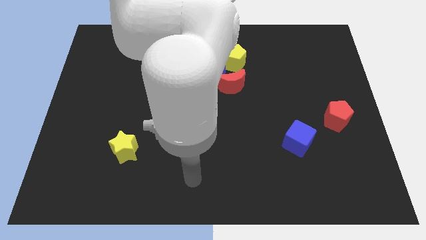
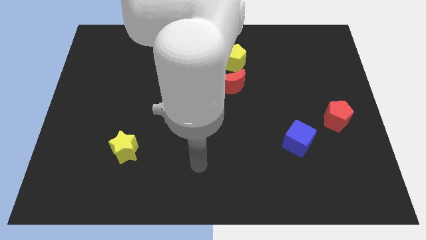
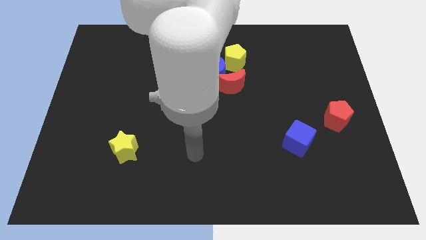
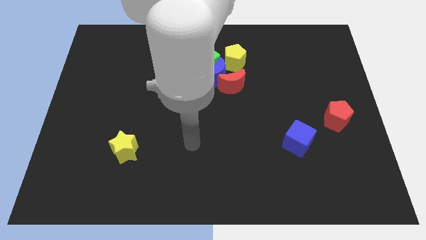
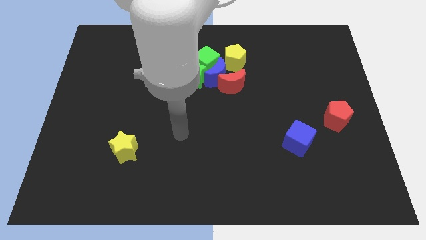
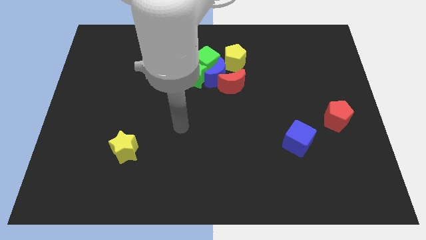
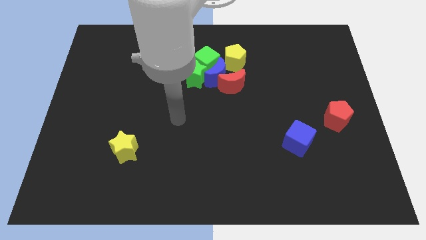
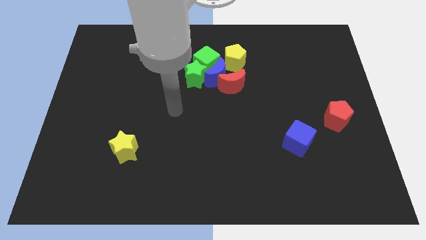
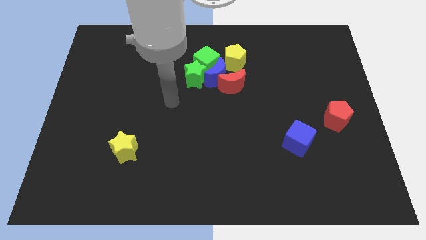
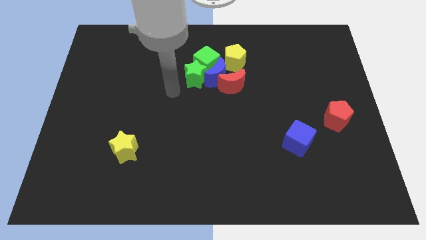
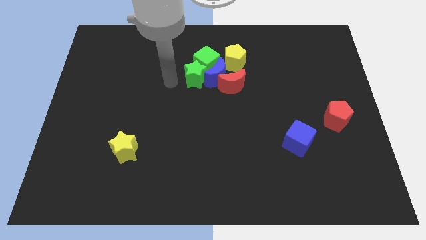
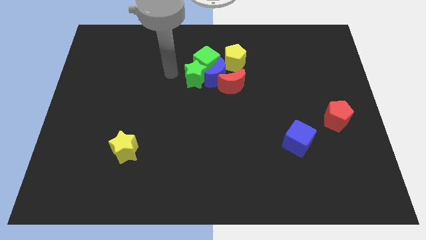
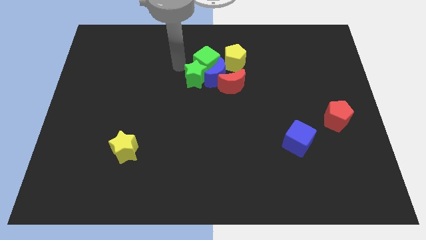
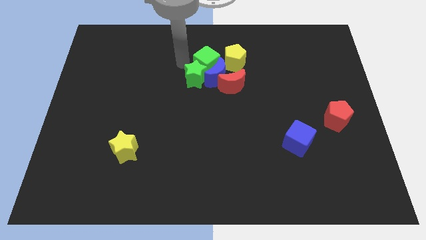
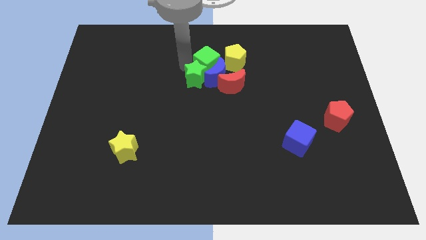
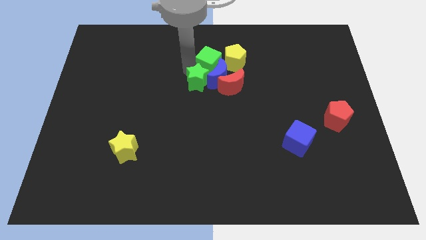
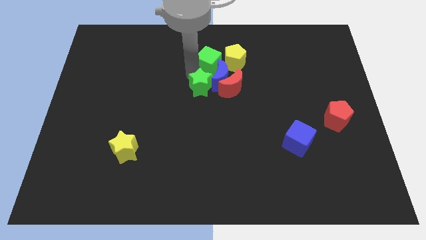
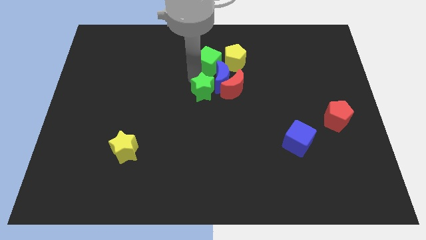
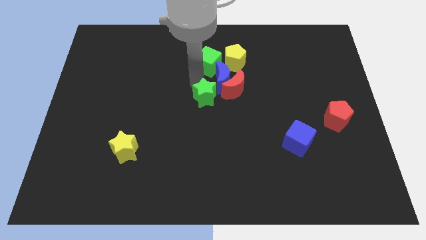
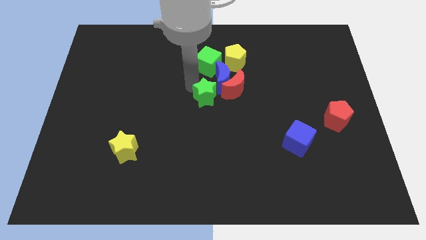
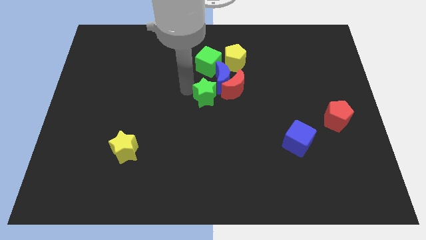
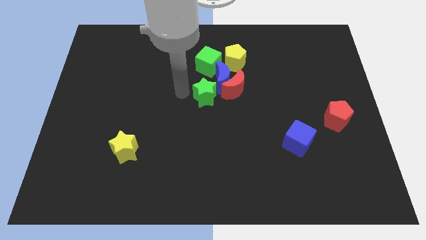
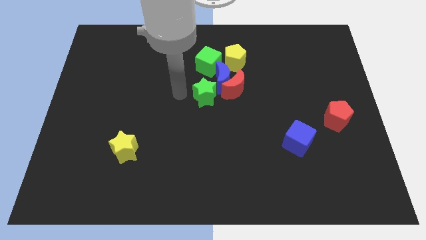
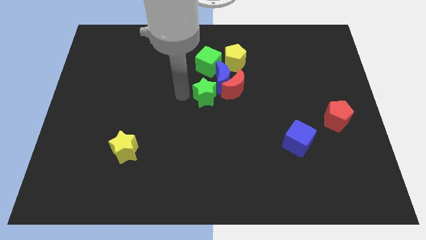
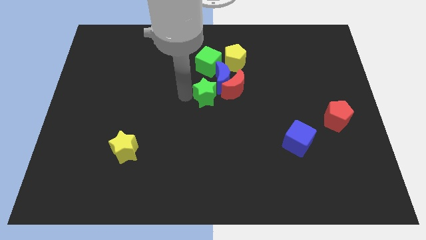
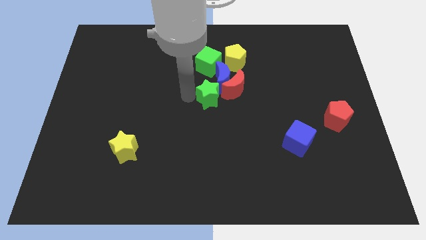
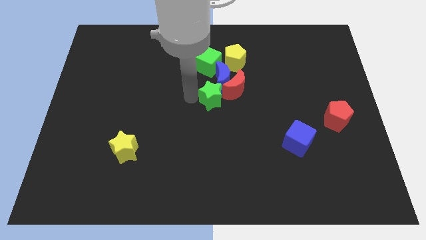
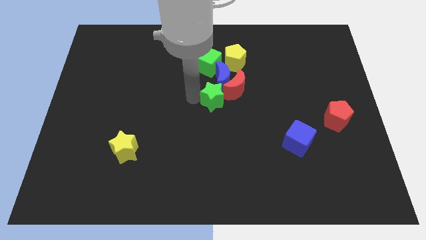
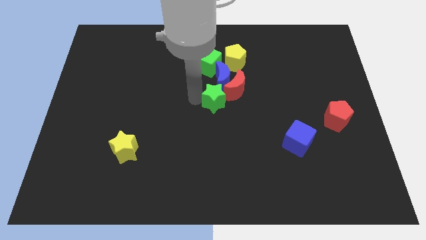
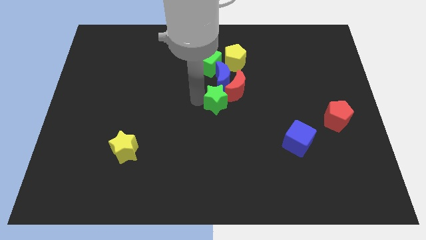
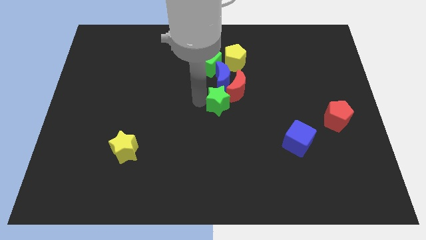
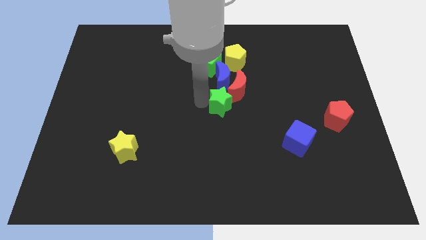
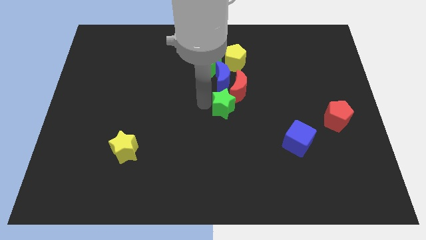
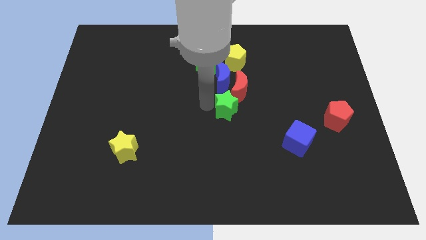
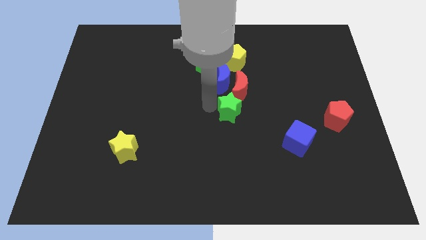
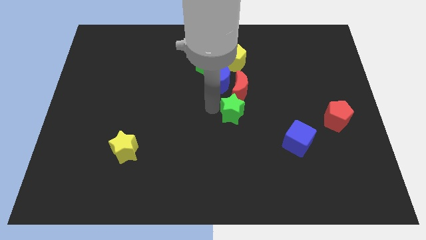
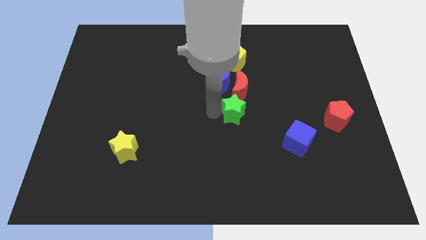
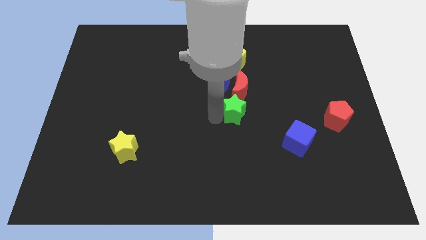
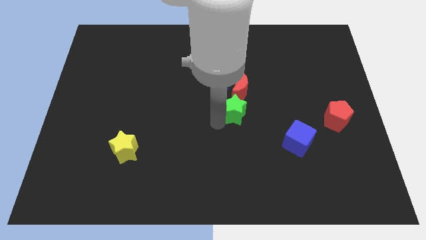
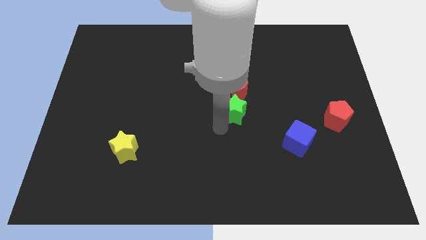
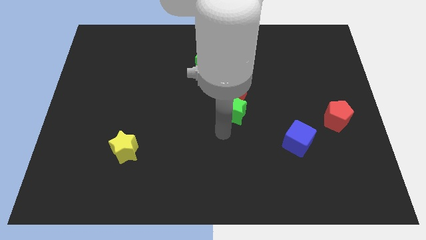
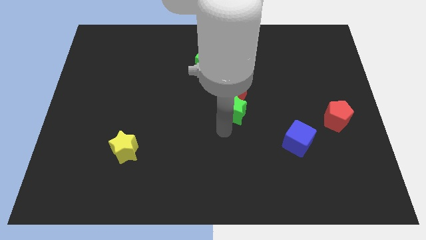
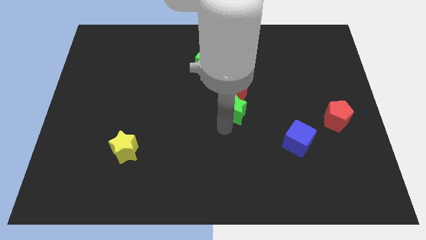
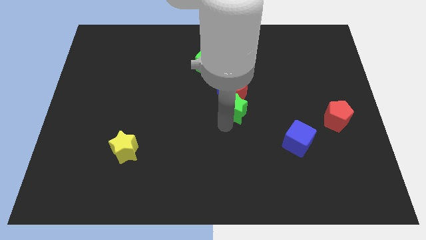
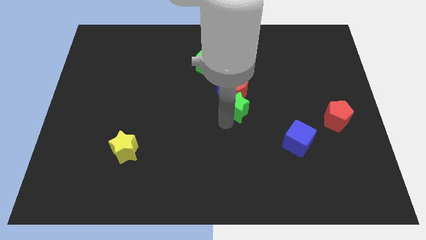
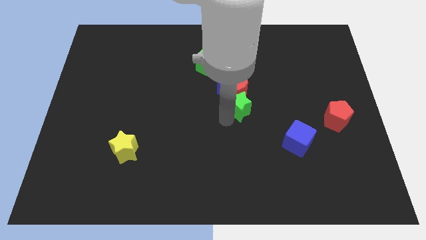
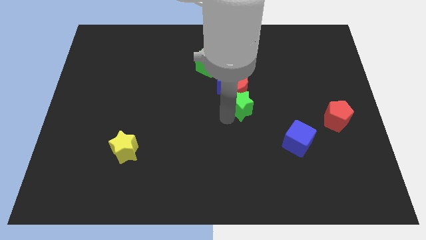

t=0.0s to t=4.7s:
push the green star right slightly

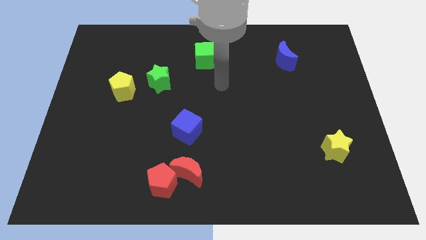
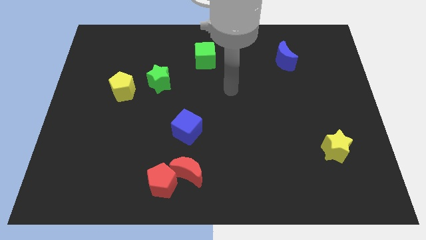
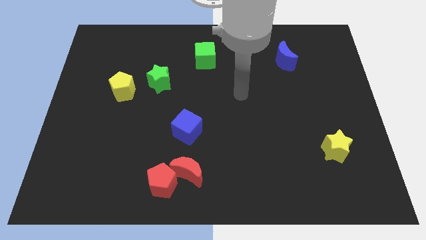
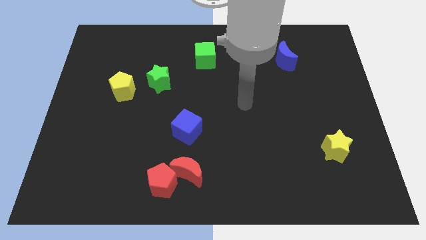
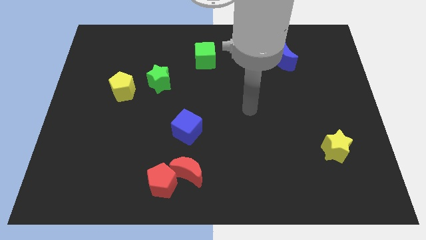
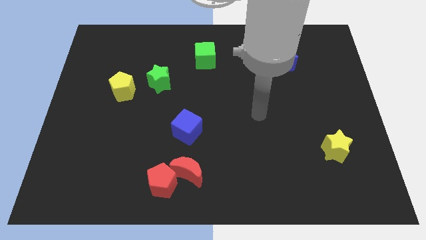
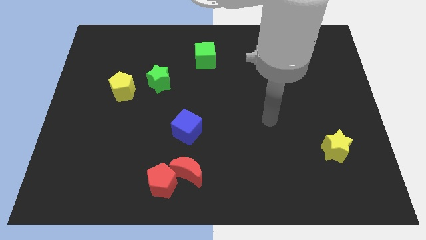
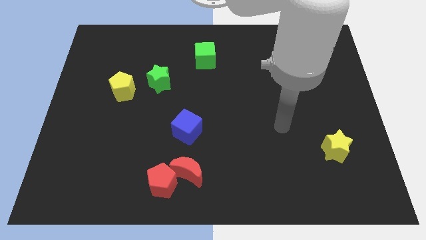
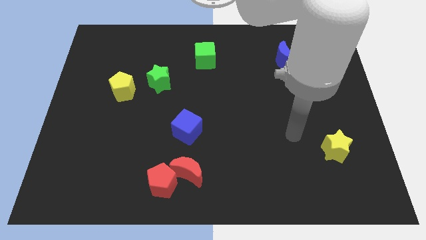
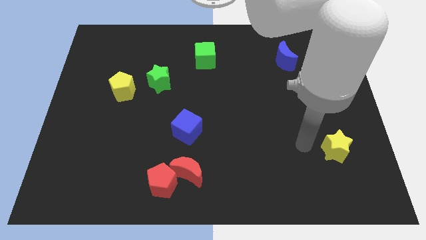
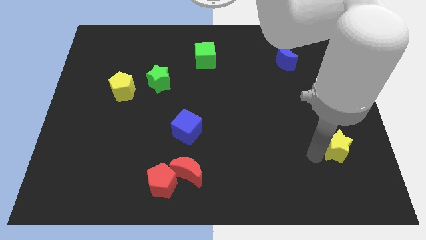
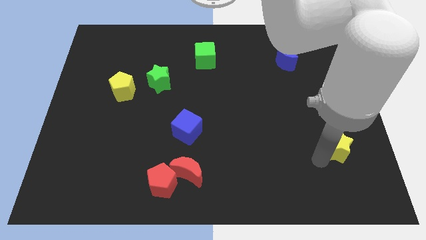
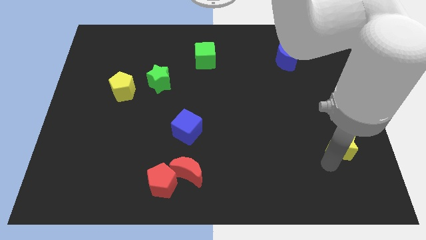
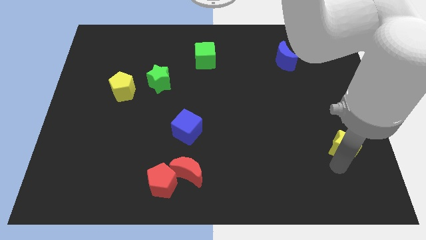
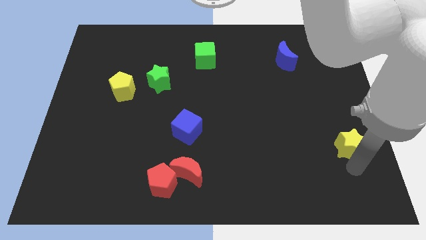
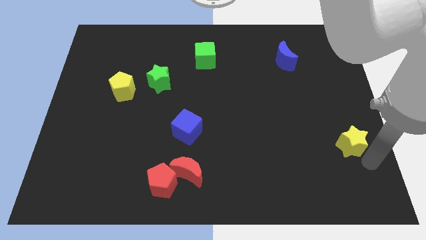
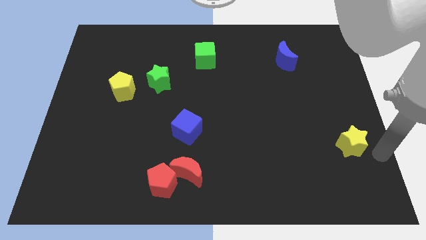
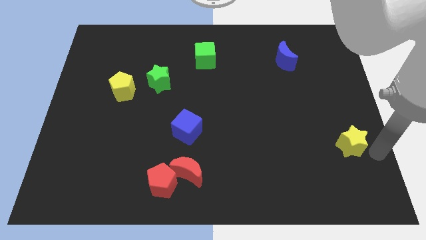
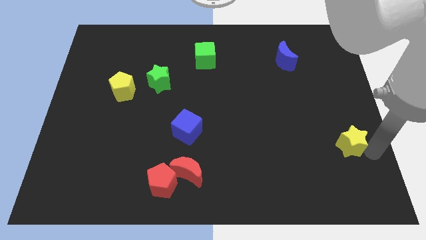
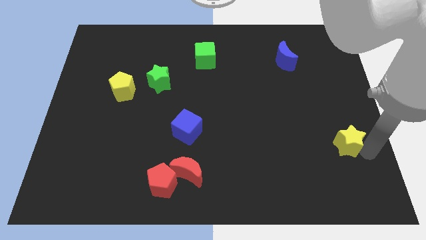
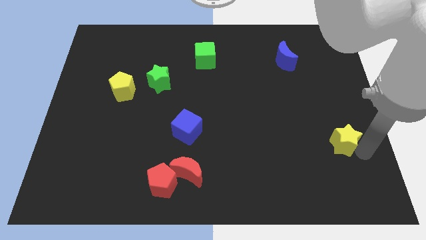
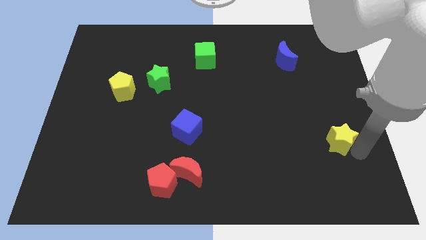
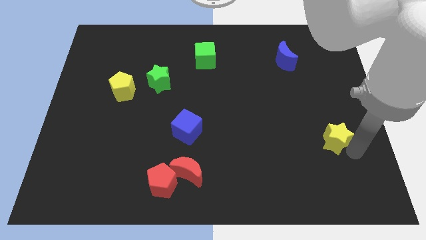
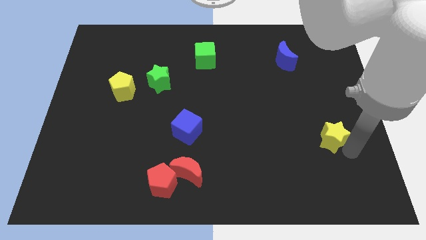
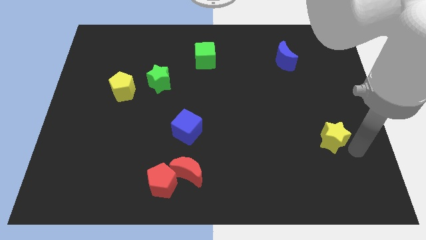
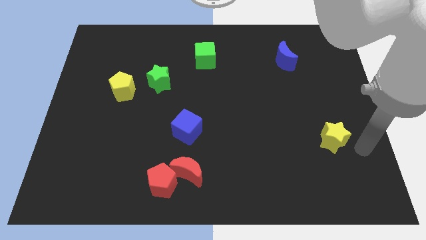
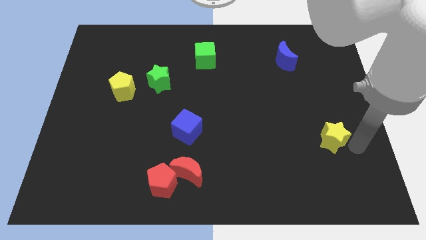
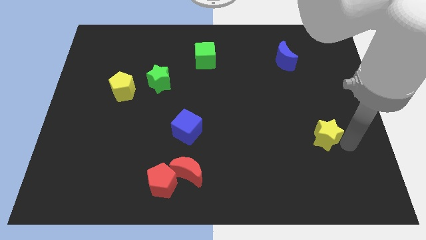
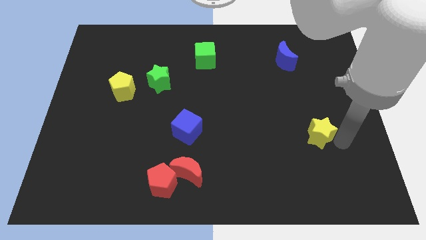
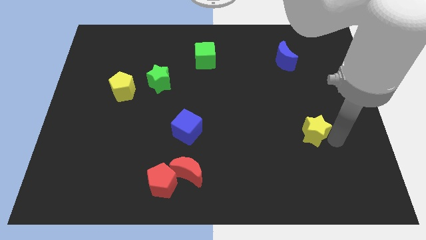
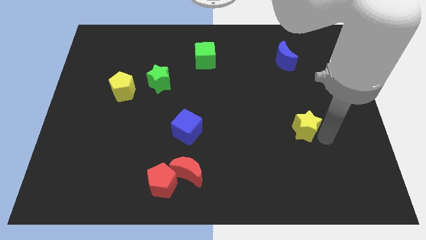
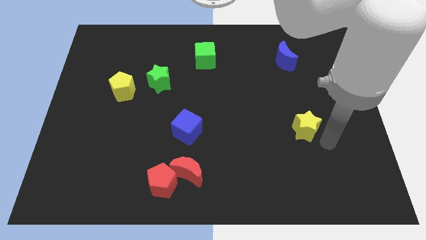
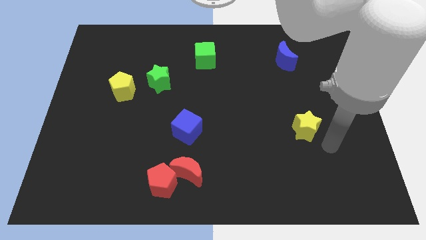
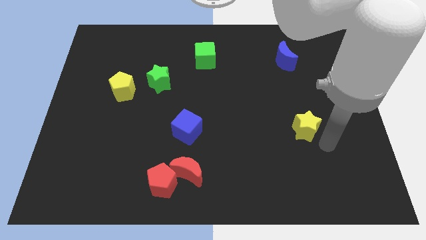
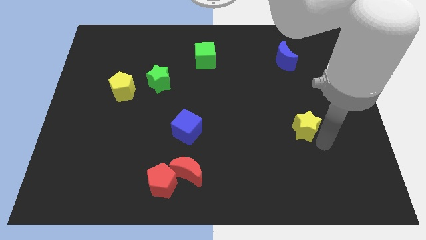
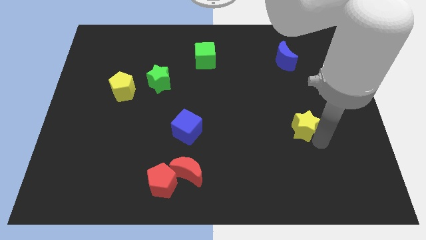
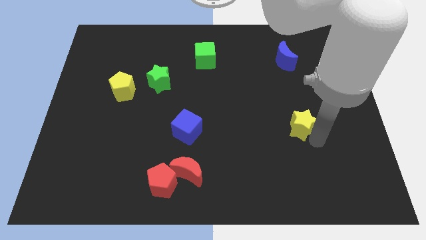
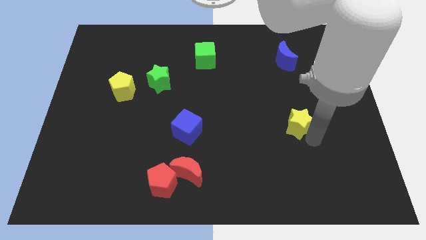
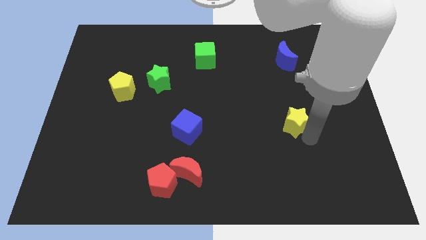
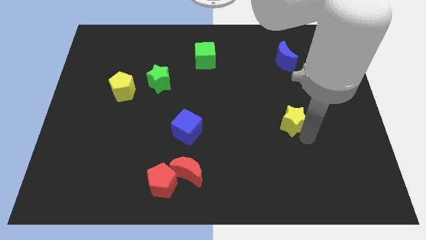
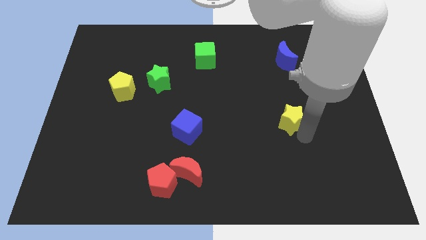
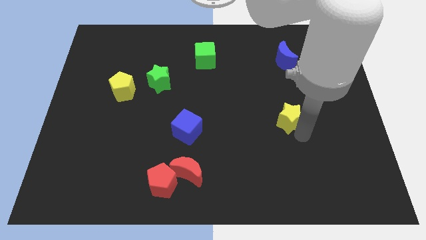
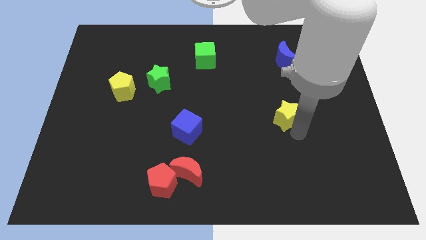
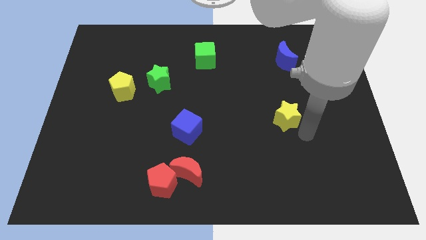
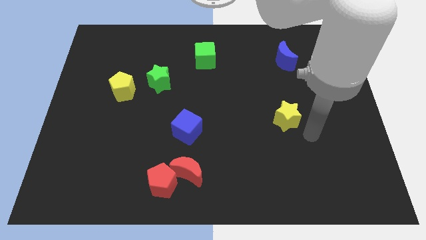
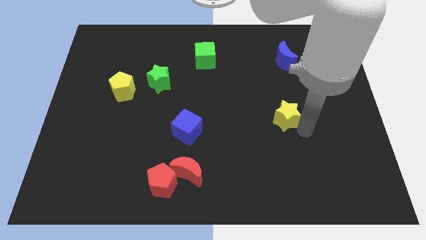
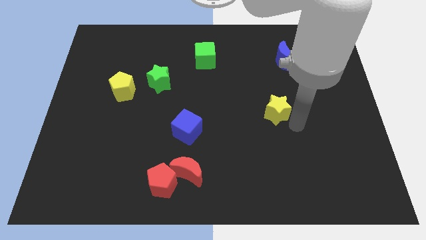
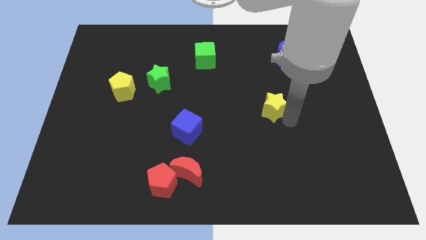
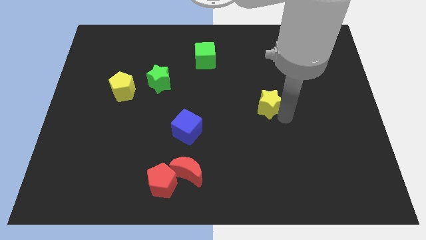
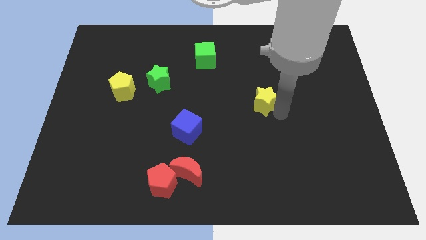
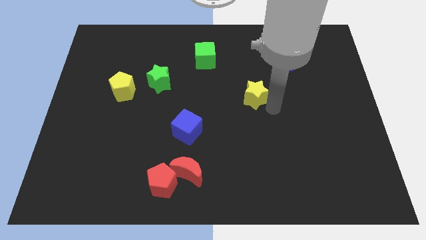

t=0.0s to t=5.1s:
move the yellow star upwards and then to the left
